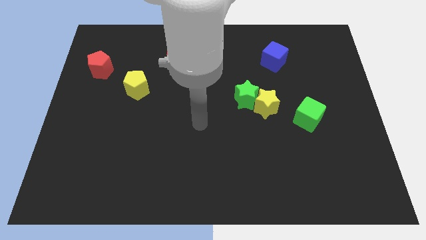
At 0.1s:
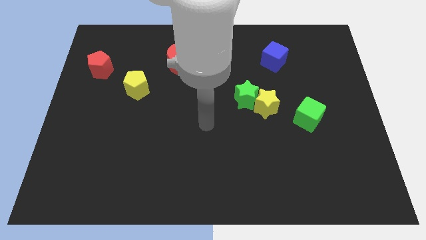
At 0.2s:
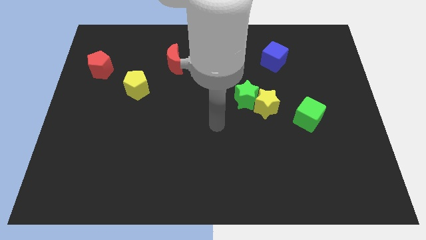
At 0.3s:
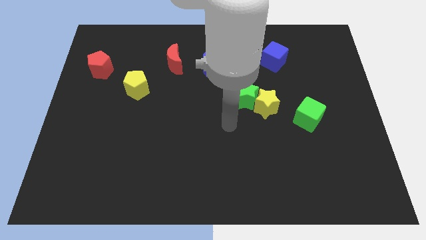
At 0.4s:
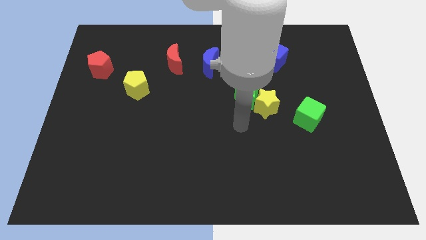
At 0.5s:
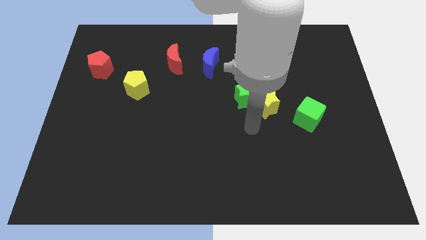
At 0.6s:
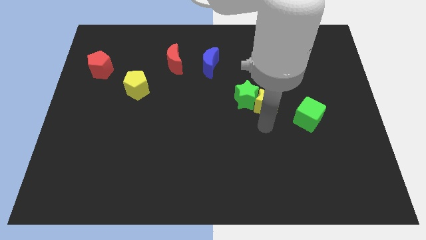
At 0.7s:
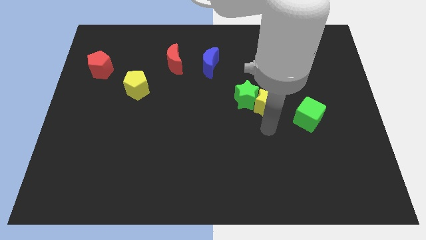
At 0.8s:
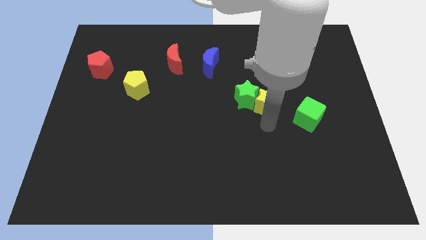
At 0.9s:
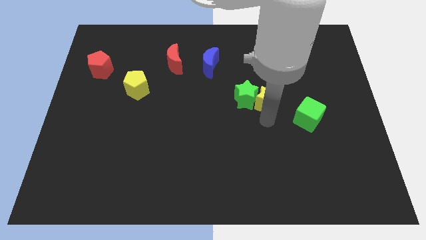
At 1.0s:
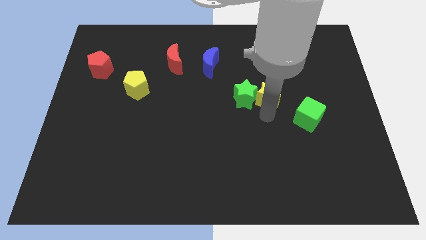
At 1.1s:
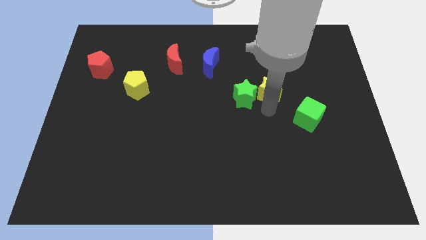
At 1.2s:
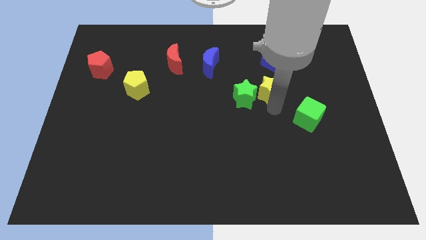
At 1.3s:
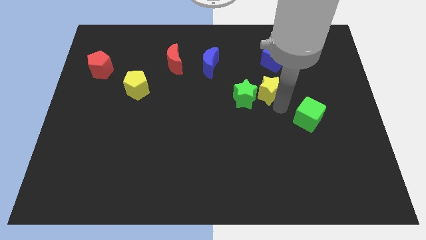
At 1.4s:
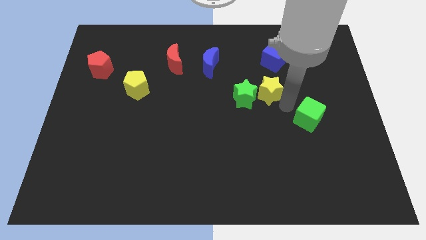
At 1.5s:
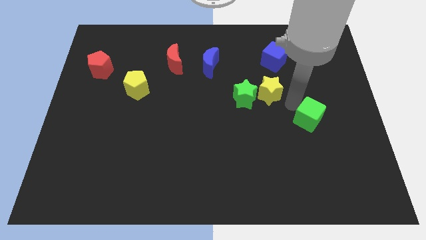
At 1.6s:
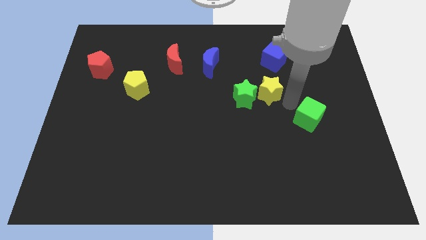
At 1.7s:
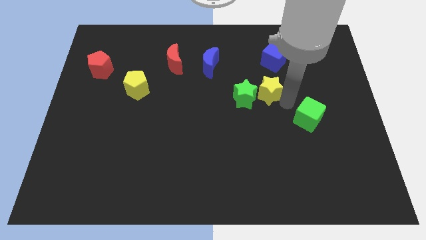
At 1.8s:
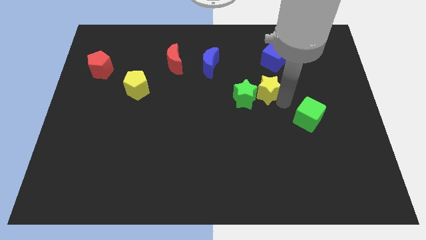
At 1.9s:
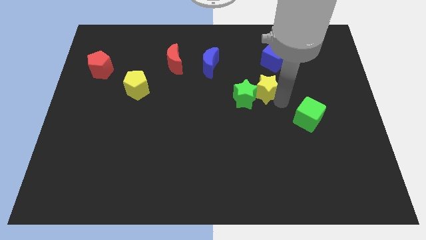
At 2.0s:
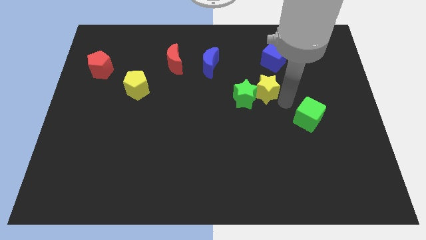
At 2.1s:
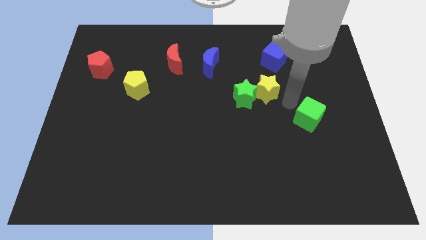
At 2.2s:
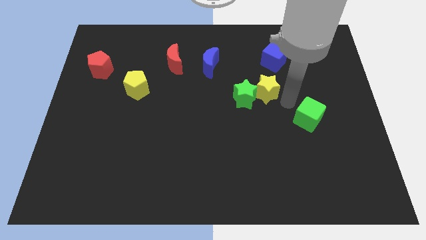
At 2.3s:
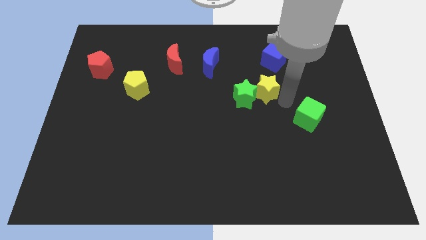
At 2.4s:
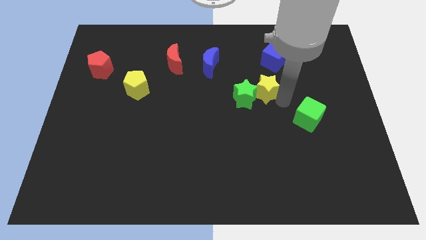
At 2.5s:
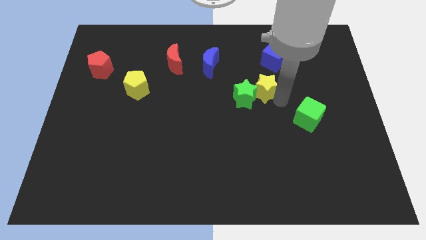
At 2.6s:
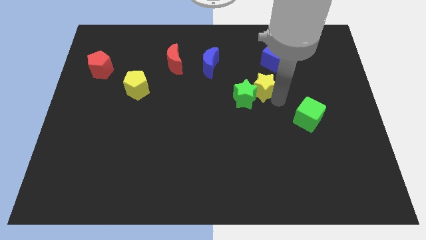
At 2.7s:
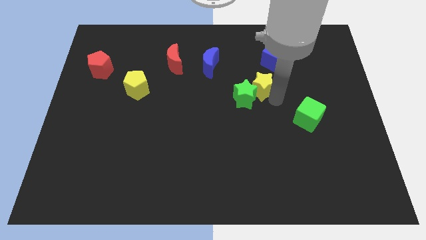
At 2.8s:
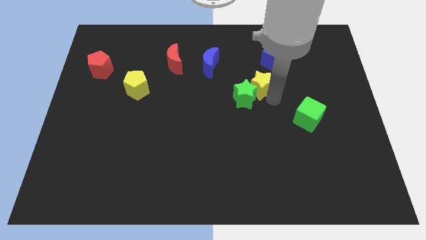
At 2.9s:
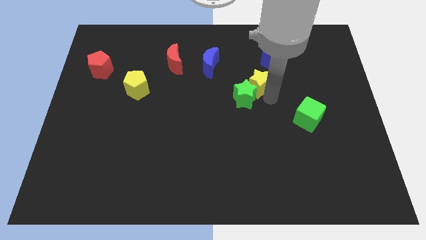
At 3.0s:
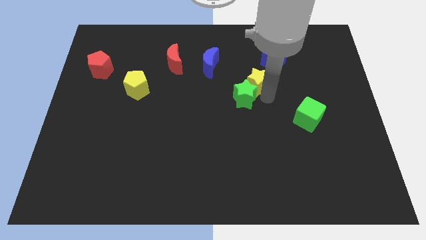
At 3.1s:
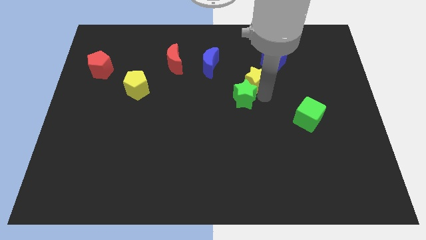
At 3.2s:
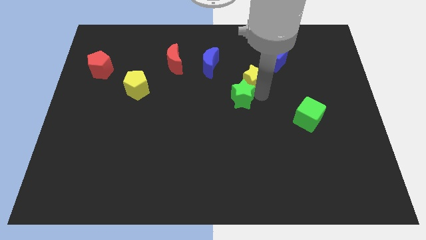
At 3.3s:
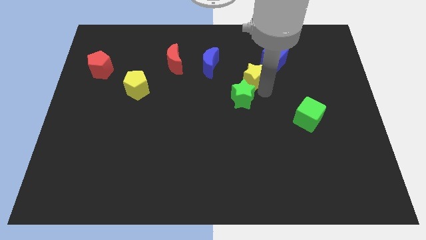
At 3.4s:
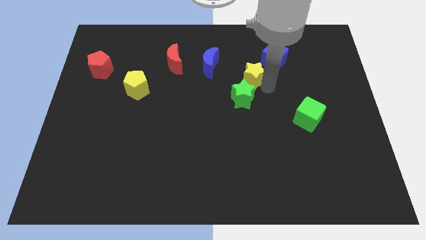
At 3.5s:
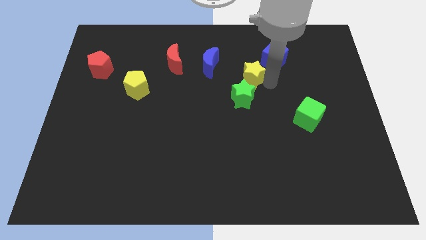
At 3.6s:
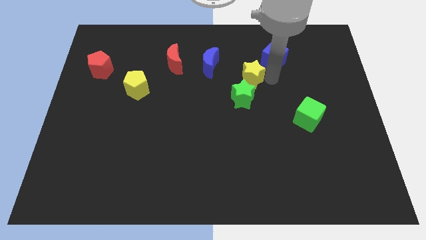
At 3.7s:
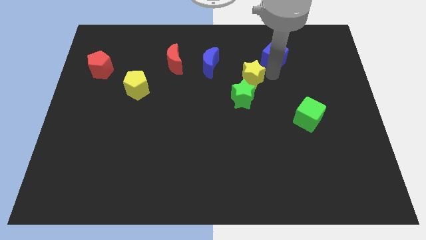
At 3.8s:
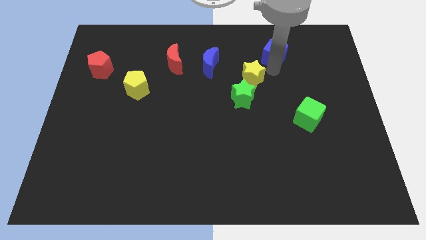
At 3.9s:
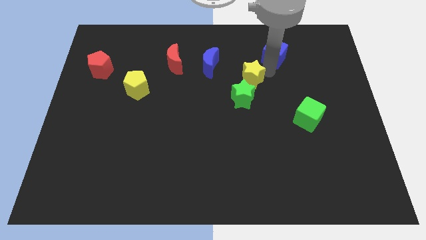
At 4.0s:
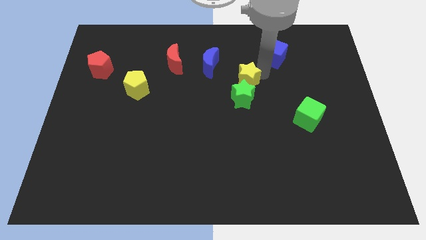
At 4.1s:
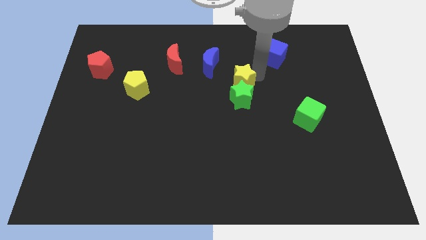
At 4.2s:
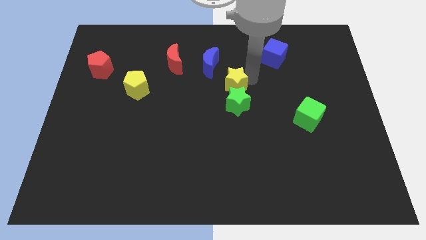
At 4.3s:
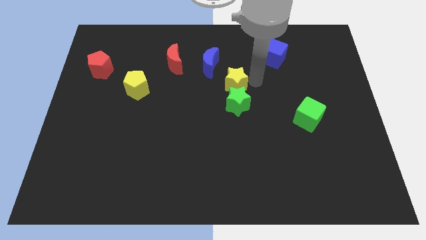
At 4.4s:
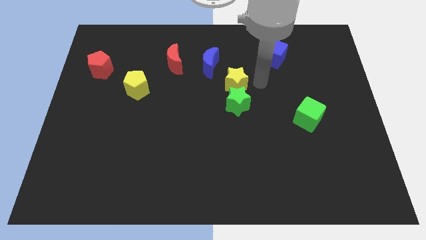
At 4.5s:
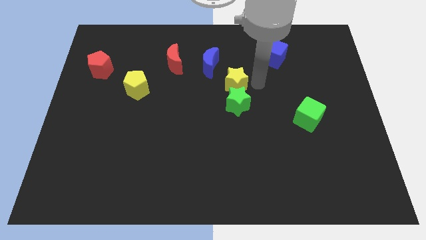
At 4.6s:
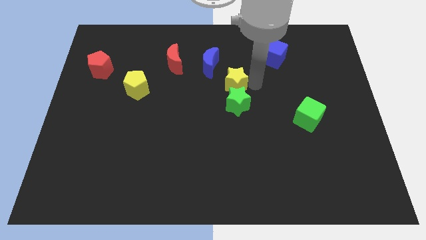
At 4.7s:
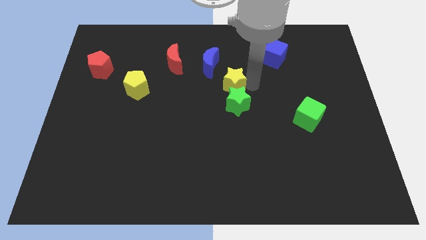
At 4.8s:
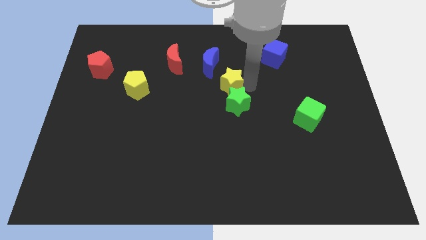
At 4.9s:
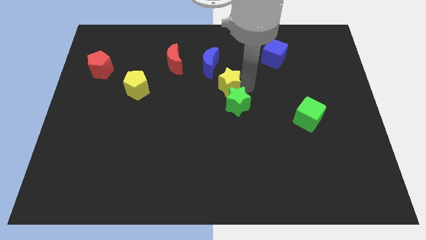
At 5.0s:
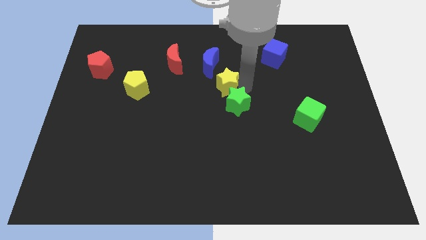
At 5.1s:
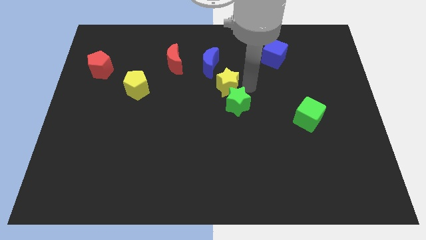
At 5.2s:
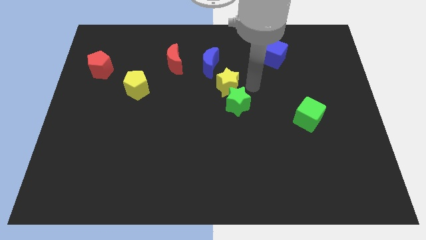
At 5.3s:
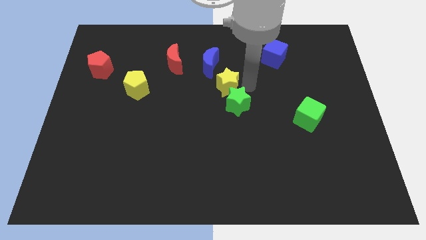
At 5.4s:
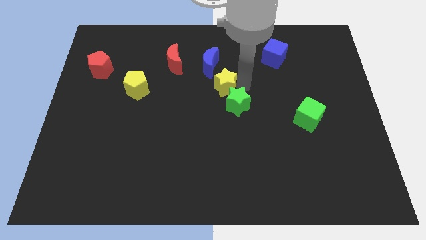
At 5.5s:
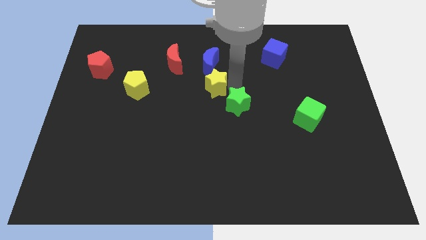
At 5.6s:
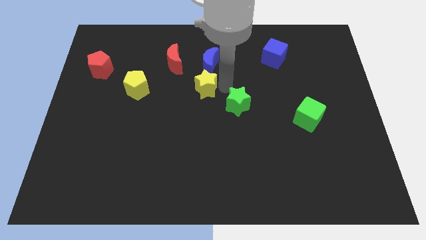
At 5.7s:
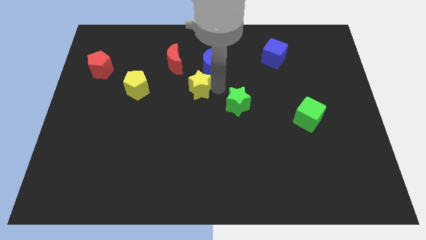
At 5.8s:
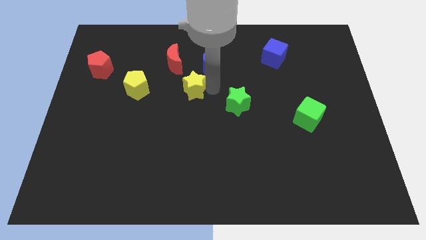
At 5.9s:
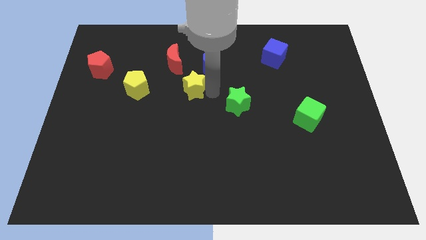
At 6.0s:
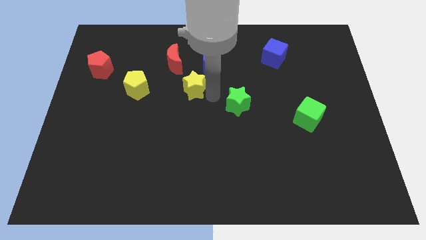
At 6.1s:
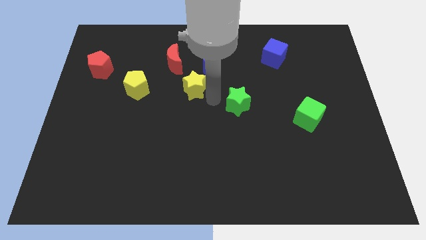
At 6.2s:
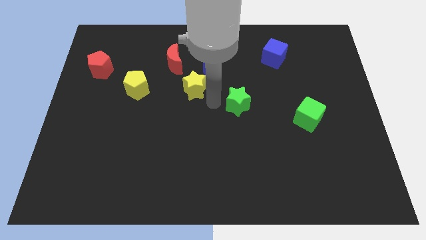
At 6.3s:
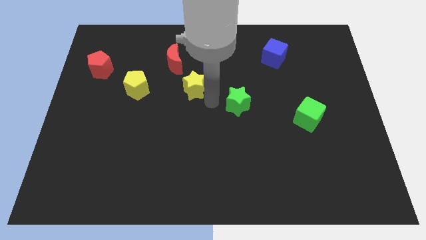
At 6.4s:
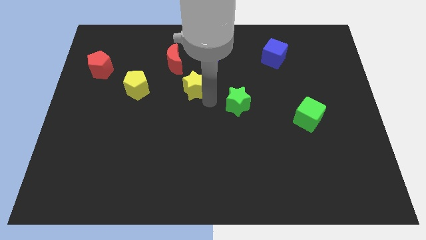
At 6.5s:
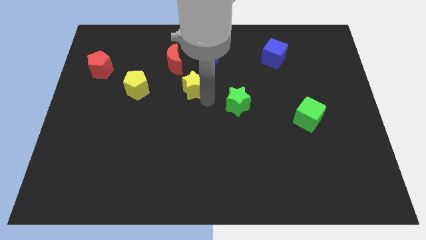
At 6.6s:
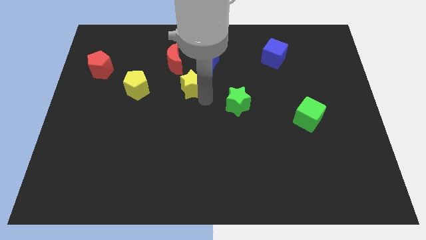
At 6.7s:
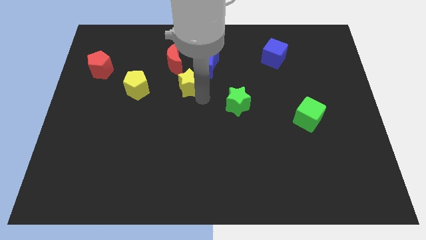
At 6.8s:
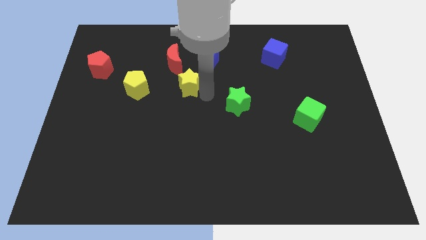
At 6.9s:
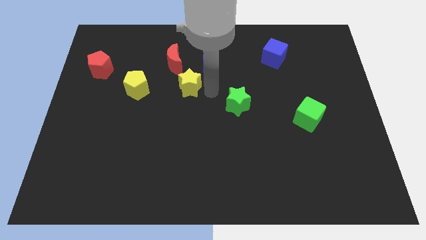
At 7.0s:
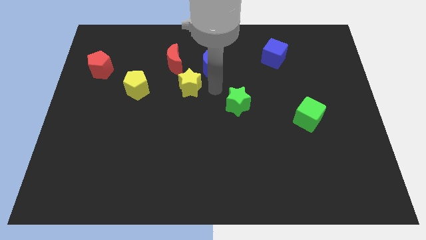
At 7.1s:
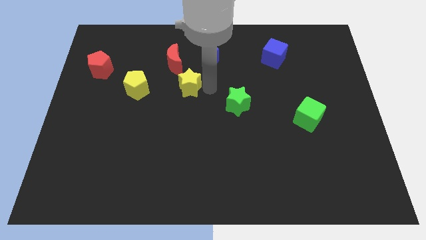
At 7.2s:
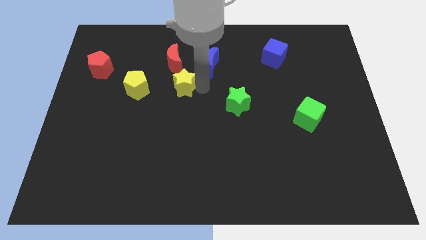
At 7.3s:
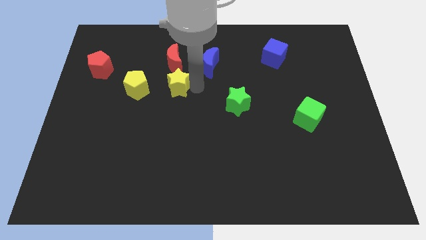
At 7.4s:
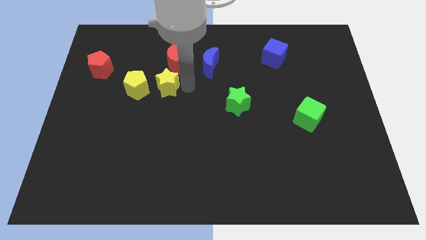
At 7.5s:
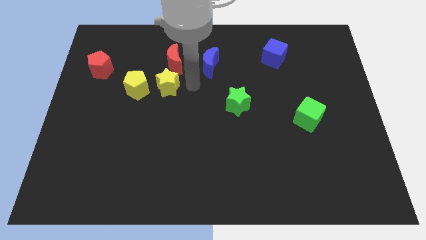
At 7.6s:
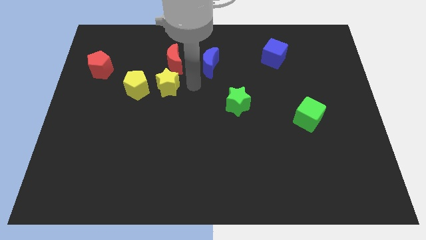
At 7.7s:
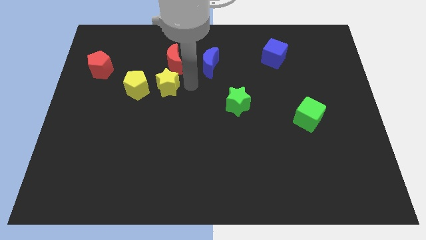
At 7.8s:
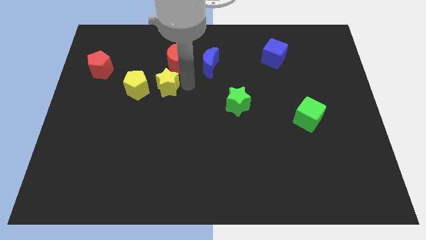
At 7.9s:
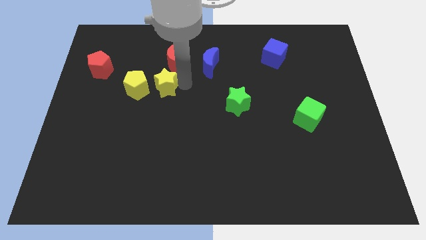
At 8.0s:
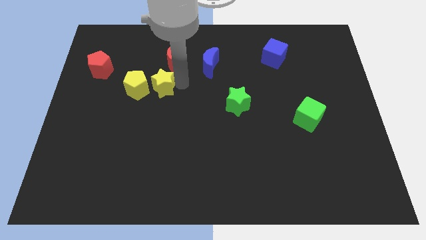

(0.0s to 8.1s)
push the yellow star towards the yellow pentagon
